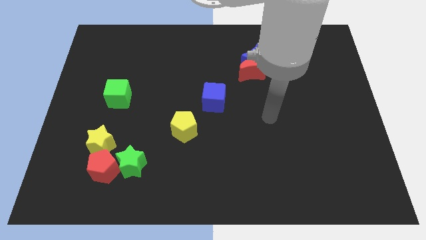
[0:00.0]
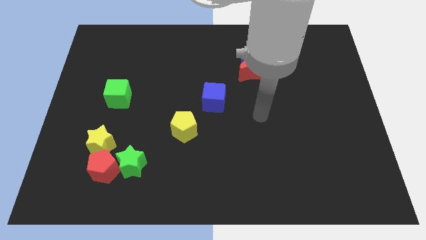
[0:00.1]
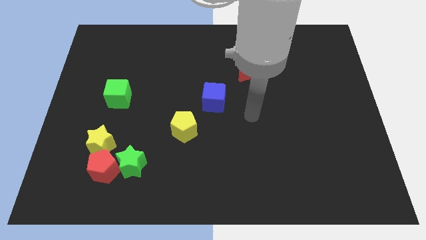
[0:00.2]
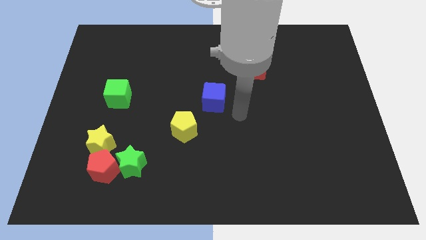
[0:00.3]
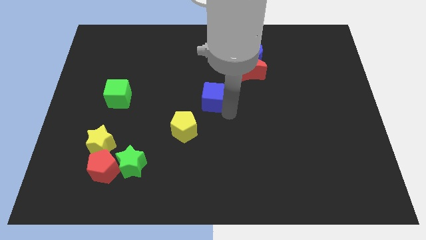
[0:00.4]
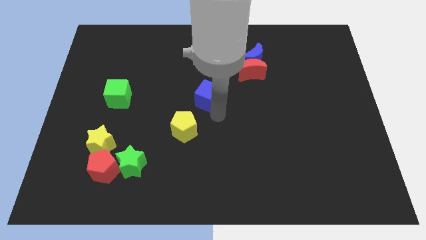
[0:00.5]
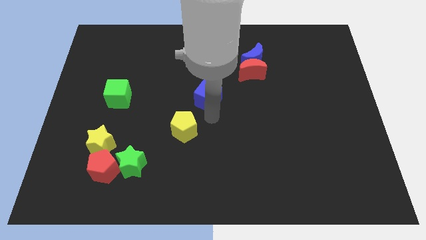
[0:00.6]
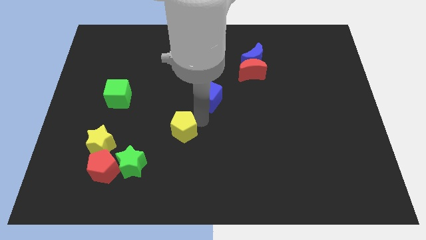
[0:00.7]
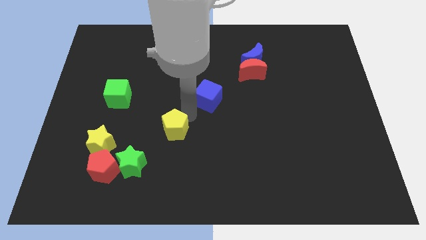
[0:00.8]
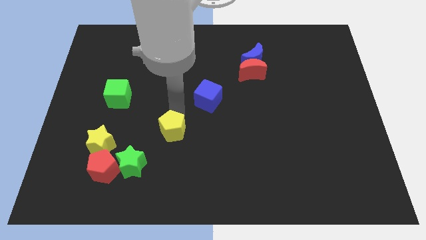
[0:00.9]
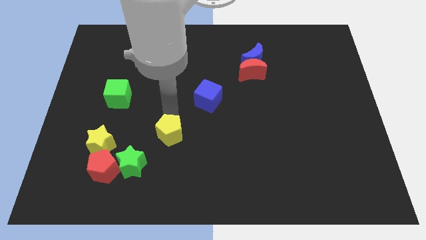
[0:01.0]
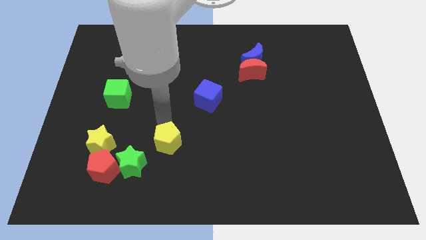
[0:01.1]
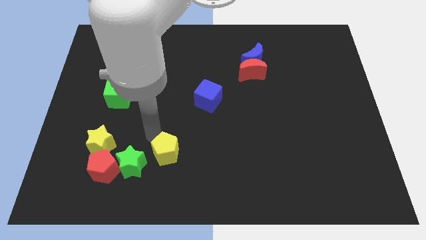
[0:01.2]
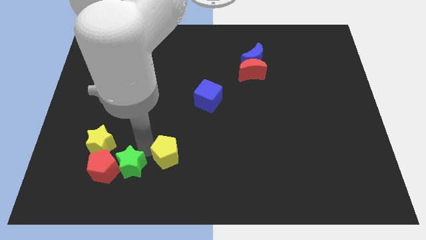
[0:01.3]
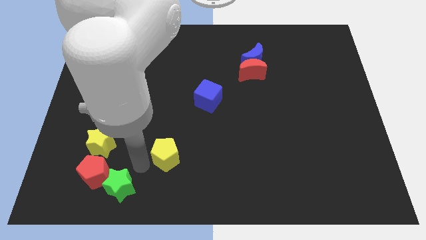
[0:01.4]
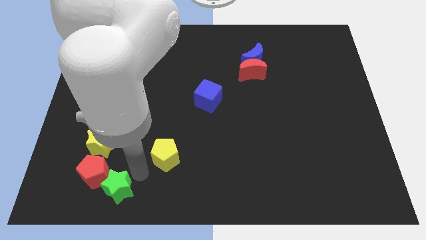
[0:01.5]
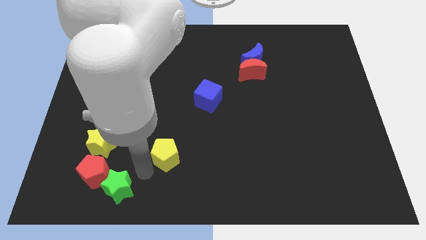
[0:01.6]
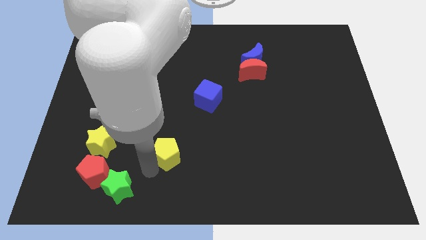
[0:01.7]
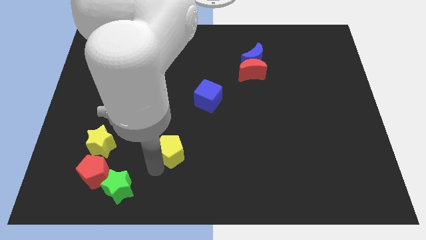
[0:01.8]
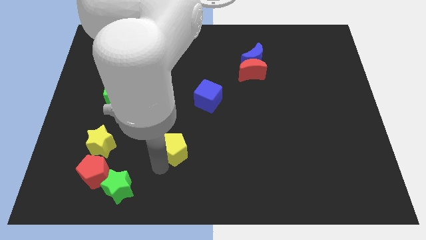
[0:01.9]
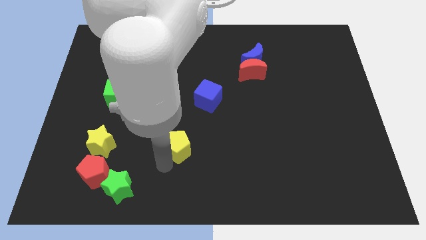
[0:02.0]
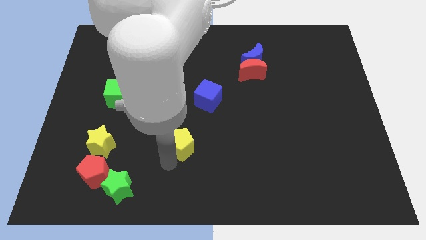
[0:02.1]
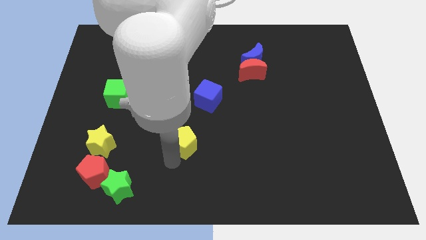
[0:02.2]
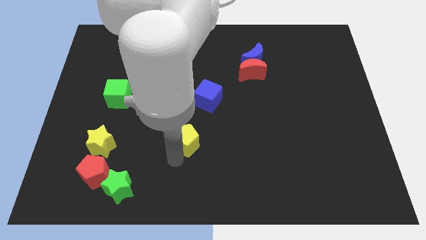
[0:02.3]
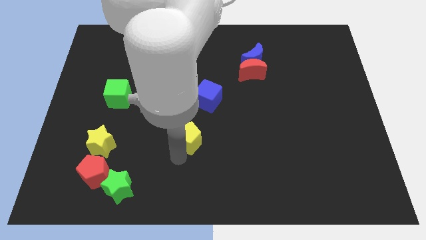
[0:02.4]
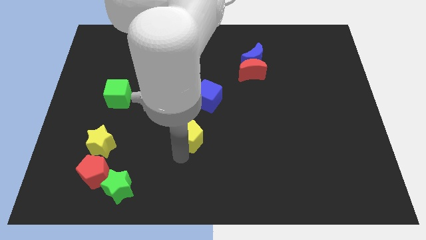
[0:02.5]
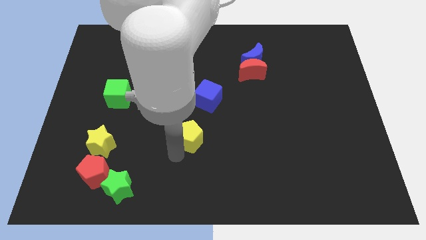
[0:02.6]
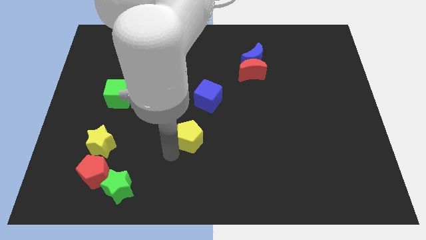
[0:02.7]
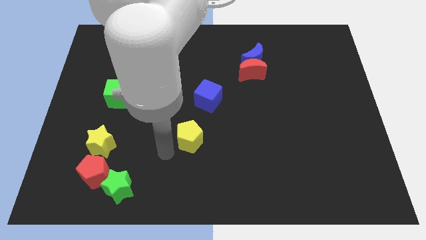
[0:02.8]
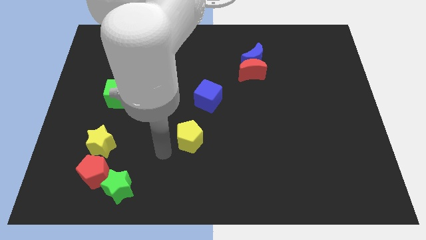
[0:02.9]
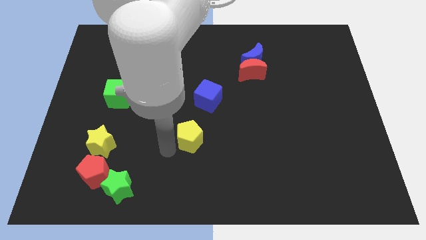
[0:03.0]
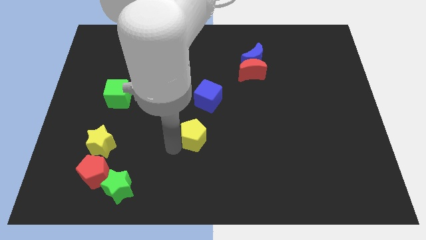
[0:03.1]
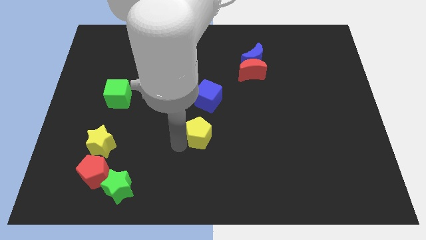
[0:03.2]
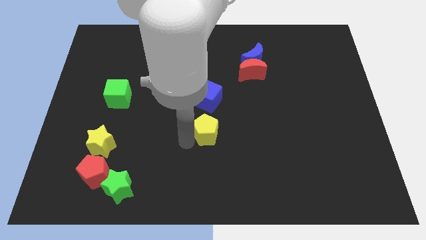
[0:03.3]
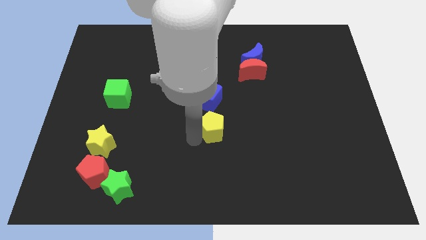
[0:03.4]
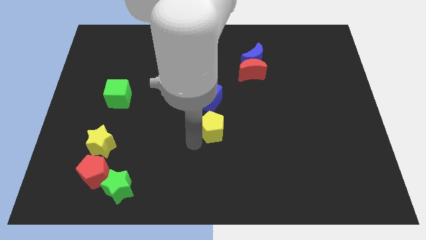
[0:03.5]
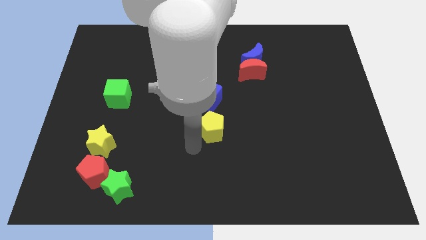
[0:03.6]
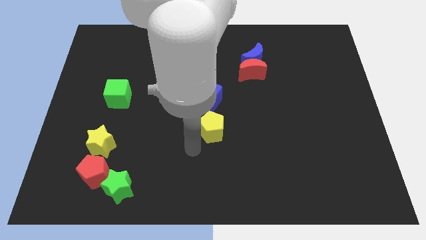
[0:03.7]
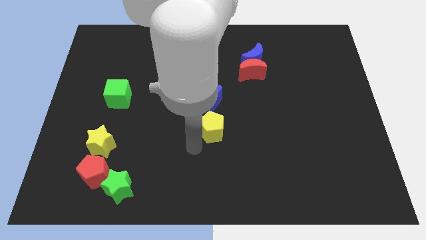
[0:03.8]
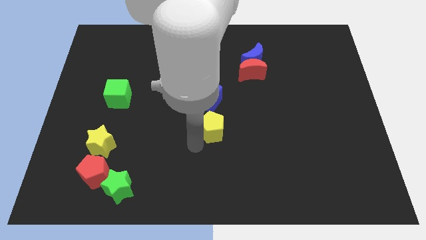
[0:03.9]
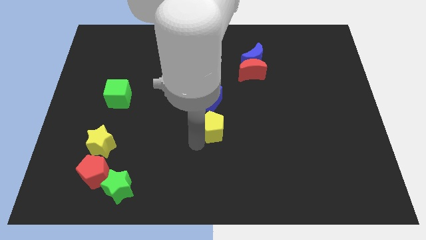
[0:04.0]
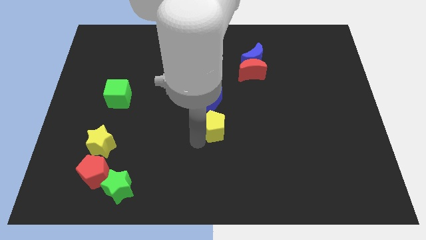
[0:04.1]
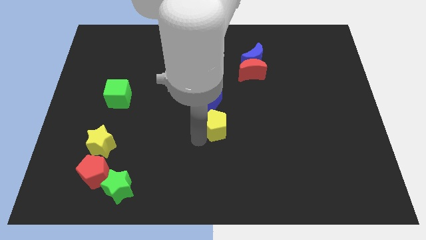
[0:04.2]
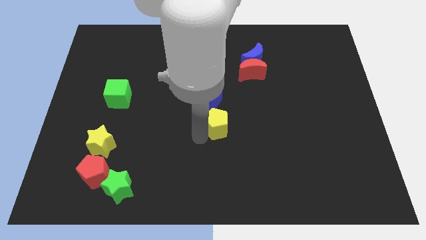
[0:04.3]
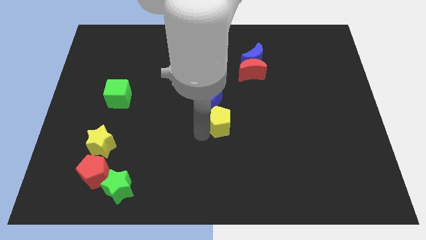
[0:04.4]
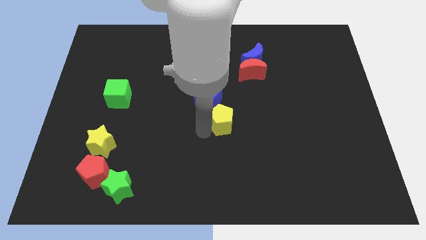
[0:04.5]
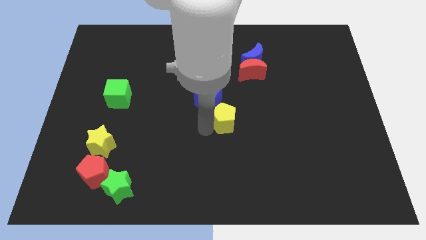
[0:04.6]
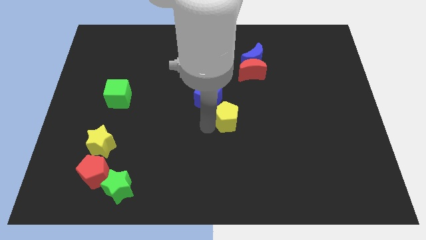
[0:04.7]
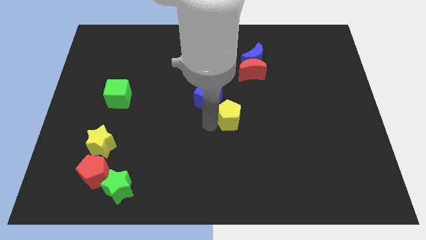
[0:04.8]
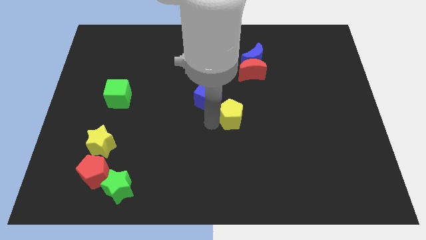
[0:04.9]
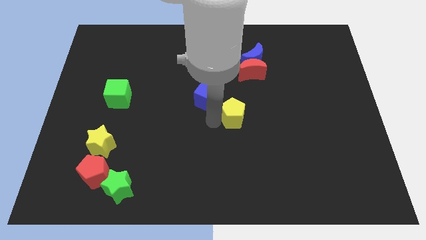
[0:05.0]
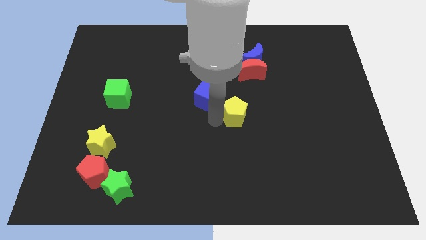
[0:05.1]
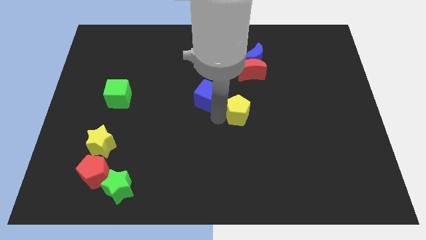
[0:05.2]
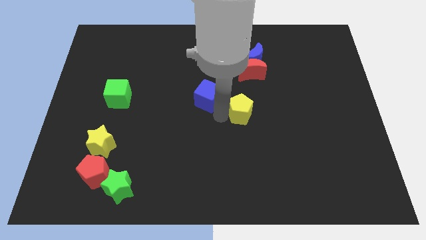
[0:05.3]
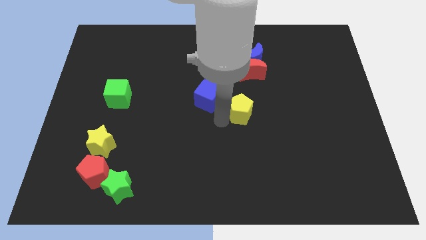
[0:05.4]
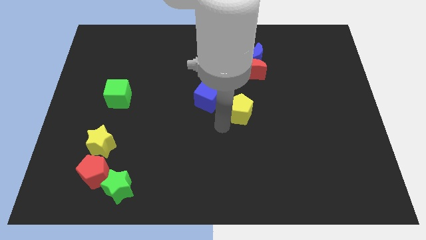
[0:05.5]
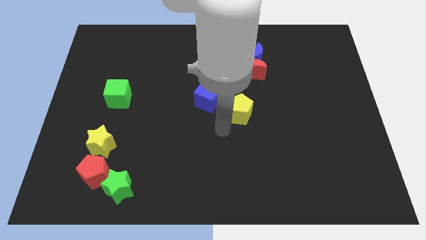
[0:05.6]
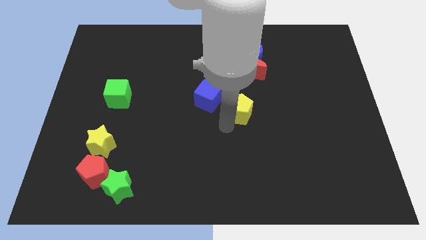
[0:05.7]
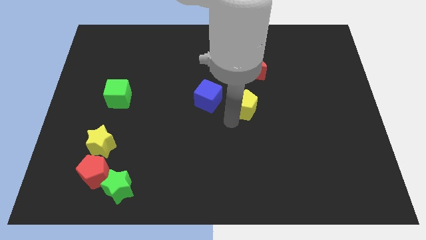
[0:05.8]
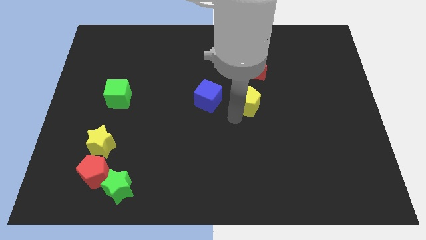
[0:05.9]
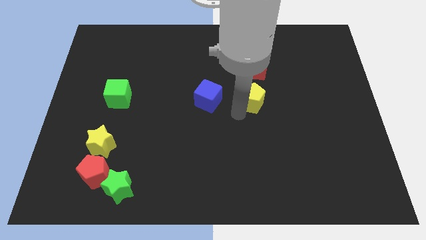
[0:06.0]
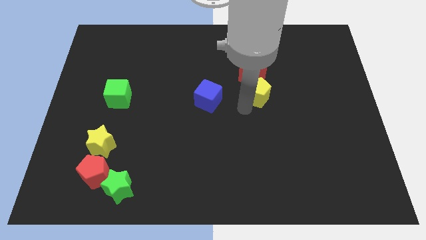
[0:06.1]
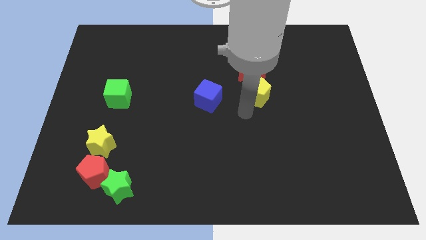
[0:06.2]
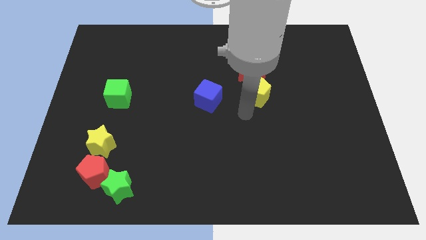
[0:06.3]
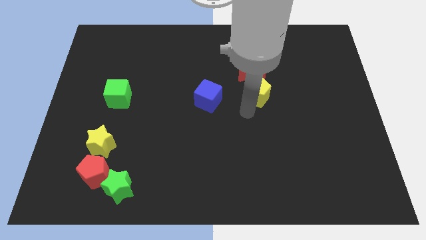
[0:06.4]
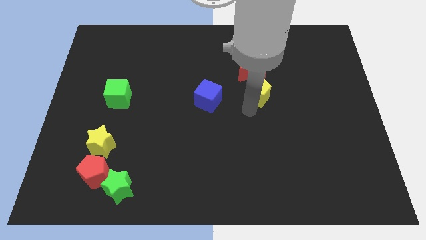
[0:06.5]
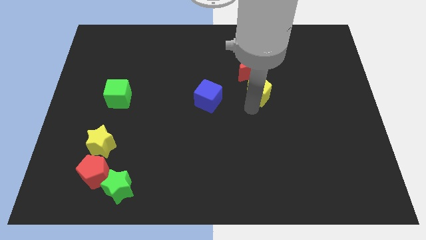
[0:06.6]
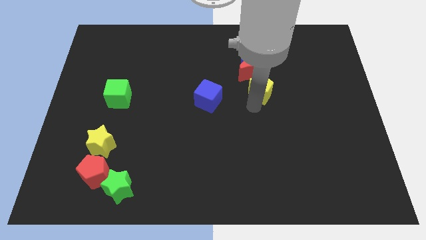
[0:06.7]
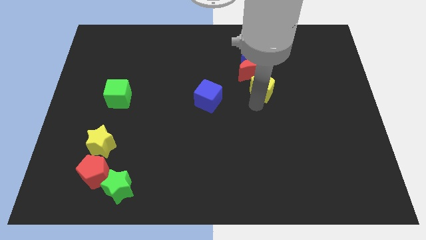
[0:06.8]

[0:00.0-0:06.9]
slide the yellow pentagon up and then right

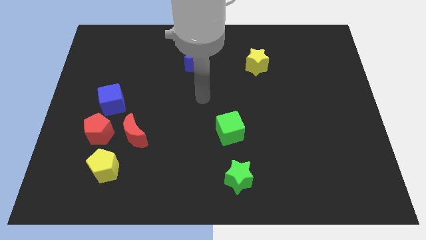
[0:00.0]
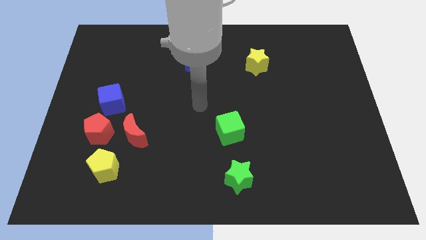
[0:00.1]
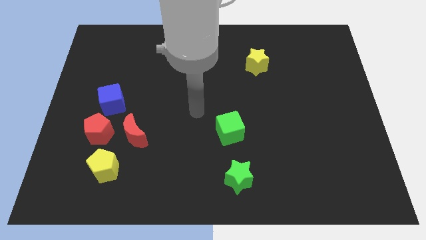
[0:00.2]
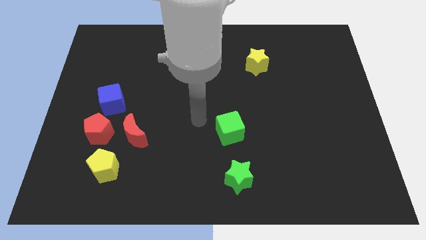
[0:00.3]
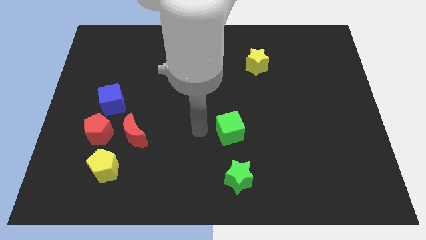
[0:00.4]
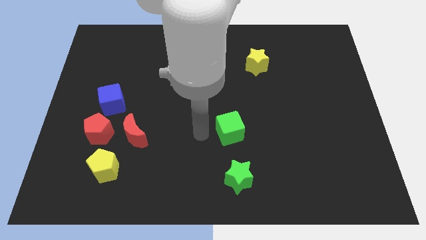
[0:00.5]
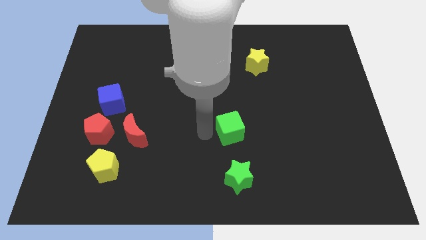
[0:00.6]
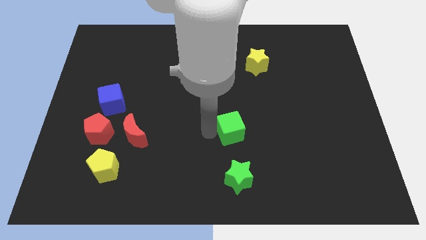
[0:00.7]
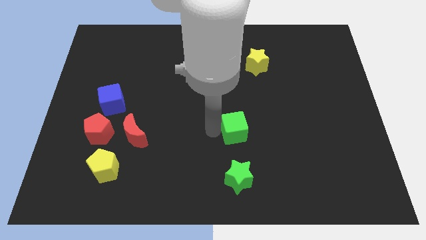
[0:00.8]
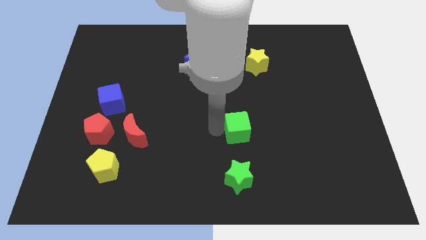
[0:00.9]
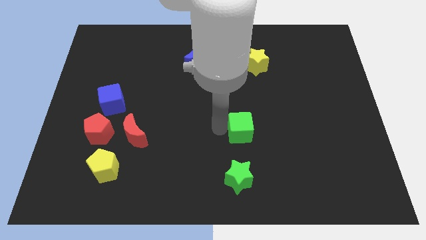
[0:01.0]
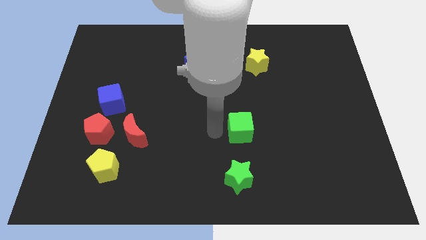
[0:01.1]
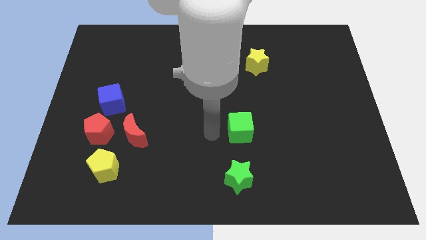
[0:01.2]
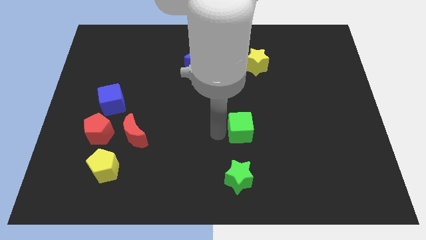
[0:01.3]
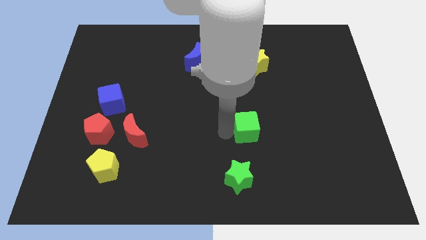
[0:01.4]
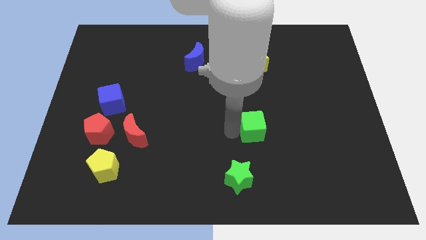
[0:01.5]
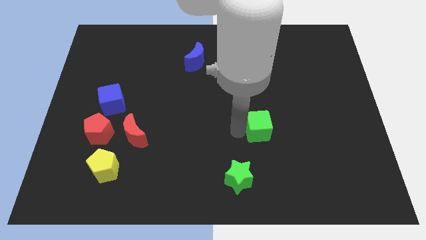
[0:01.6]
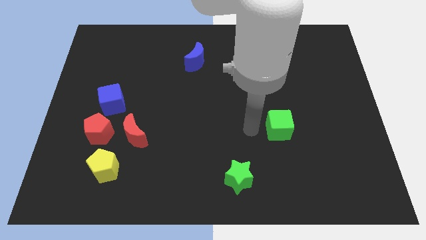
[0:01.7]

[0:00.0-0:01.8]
slide the green cube to the right slightly
